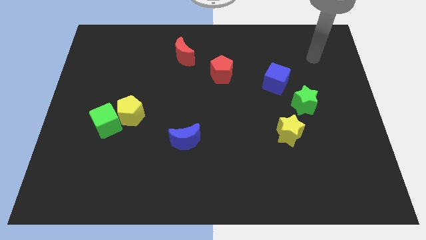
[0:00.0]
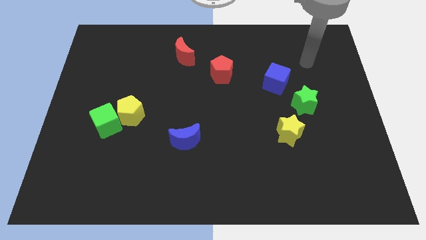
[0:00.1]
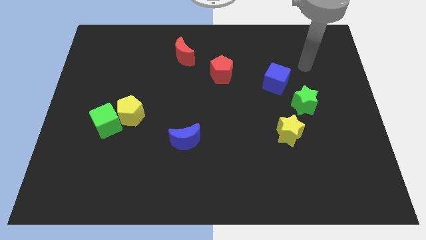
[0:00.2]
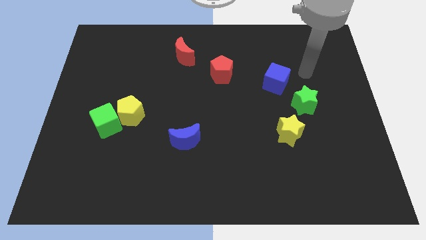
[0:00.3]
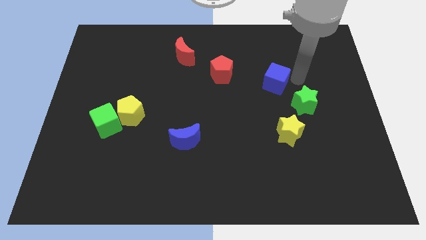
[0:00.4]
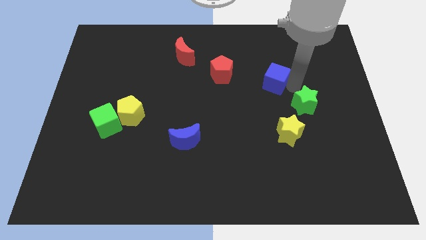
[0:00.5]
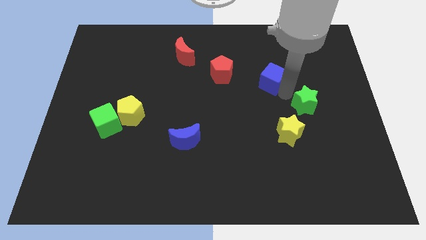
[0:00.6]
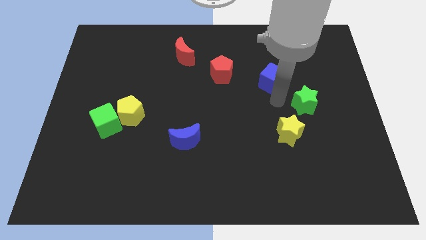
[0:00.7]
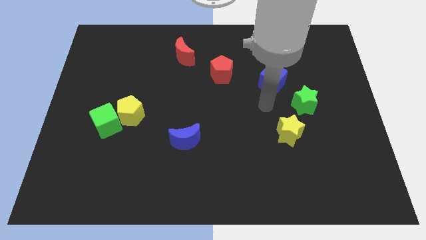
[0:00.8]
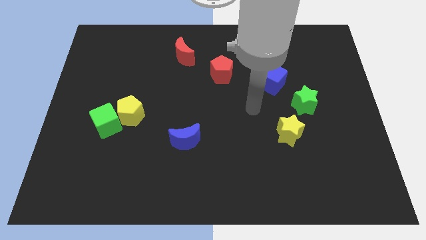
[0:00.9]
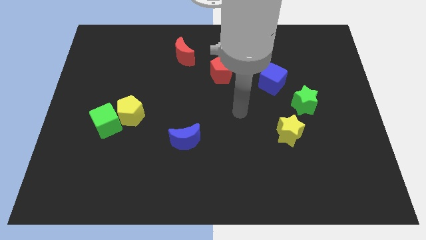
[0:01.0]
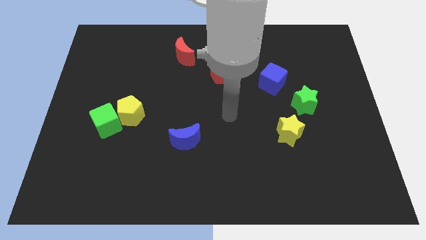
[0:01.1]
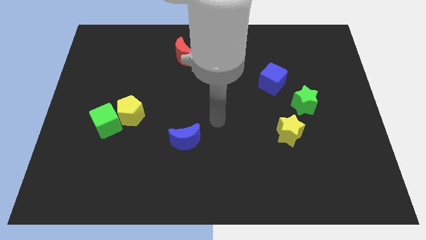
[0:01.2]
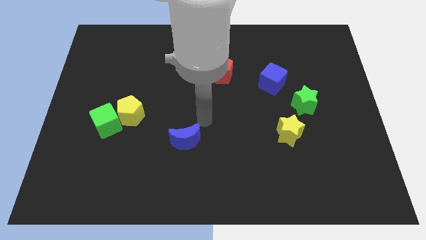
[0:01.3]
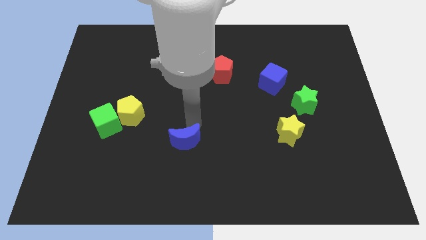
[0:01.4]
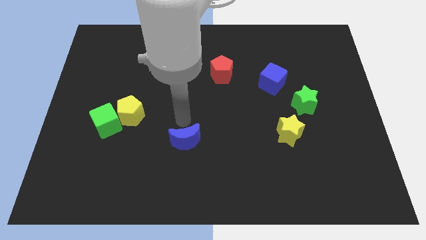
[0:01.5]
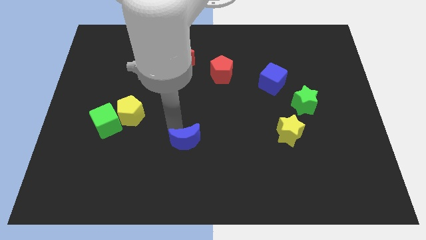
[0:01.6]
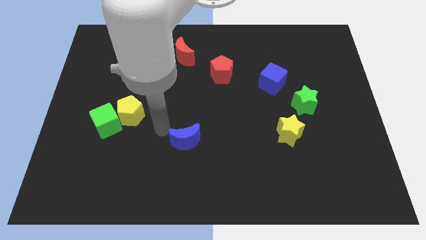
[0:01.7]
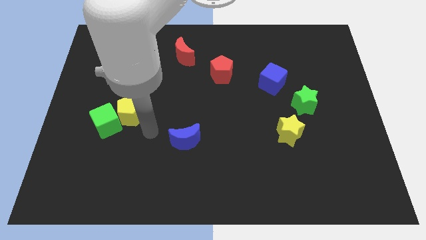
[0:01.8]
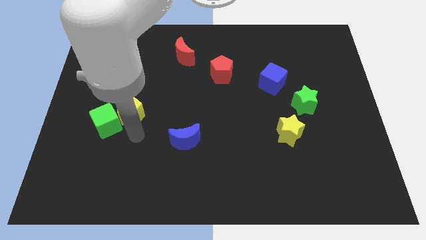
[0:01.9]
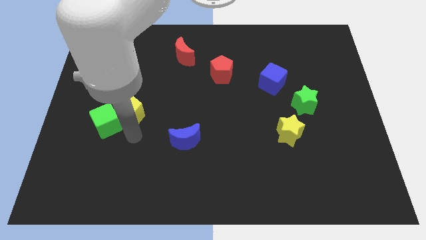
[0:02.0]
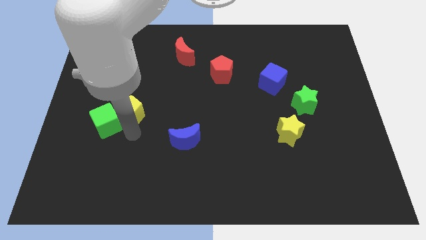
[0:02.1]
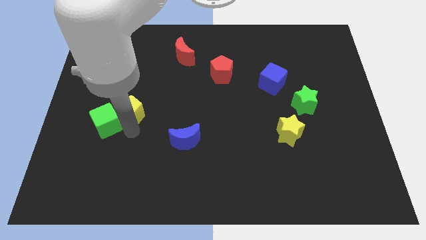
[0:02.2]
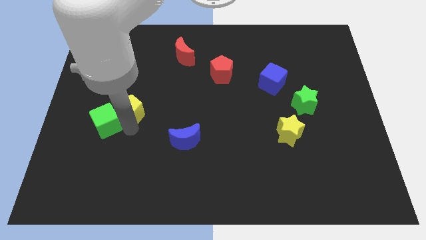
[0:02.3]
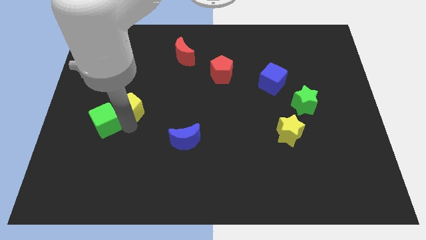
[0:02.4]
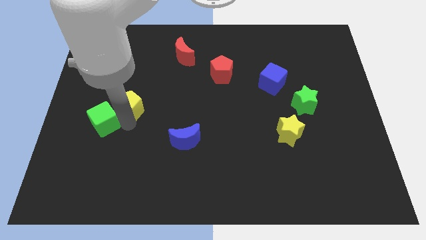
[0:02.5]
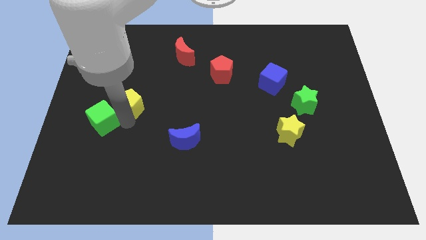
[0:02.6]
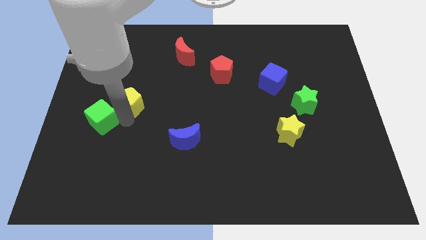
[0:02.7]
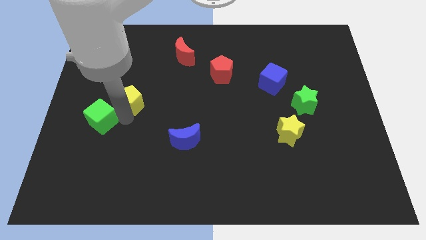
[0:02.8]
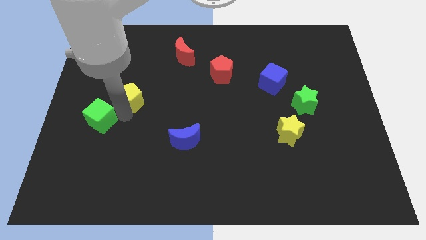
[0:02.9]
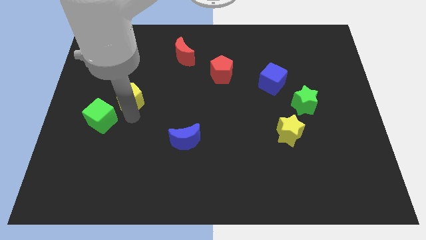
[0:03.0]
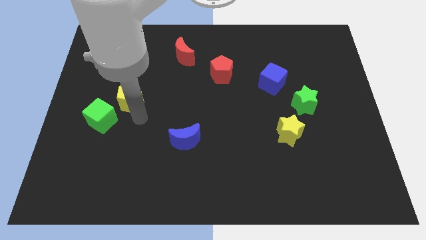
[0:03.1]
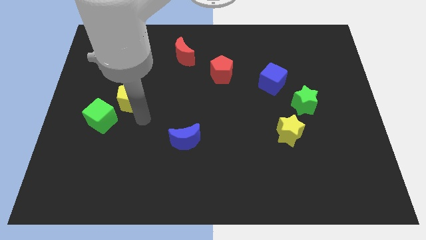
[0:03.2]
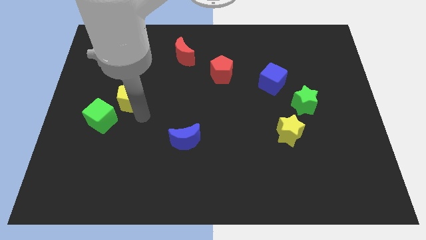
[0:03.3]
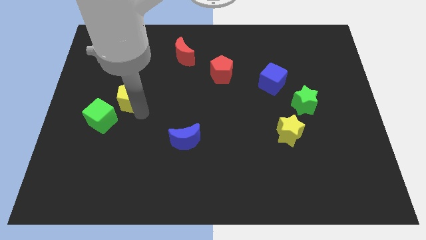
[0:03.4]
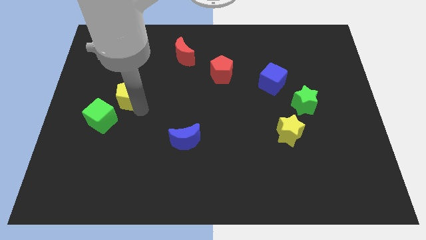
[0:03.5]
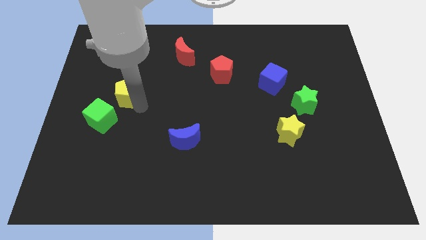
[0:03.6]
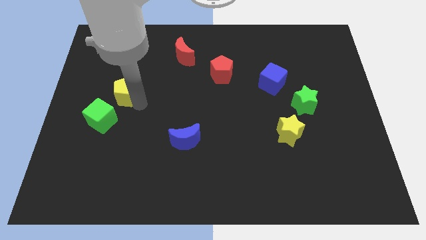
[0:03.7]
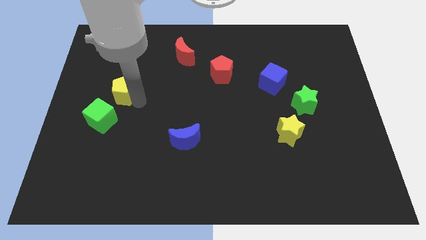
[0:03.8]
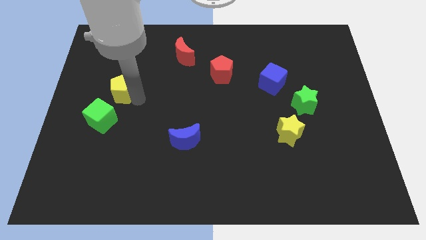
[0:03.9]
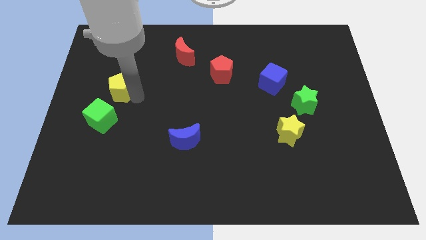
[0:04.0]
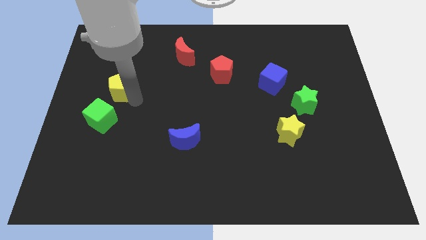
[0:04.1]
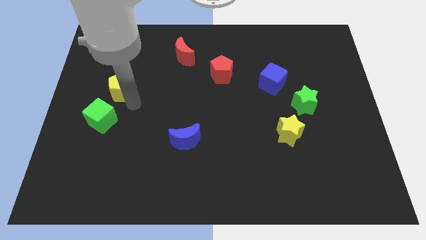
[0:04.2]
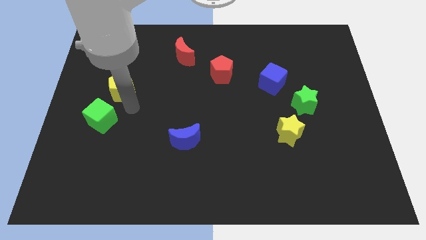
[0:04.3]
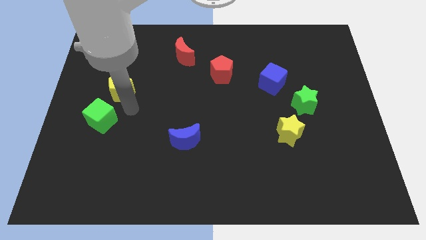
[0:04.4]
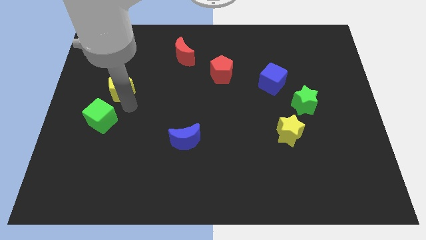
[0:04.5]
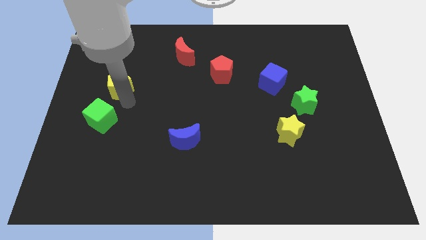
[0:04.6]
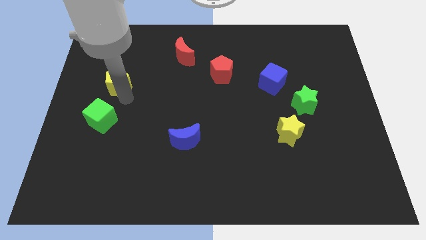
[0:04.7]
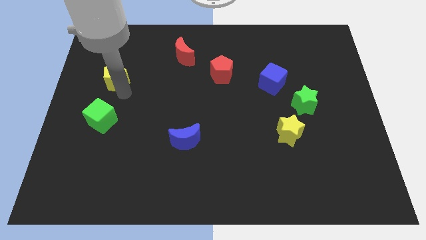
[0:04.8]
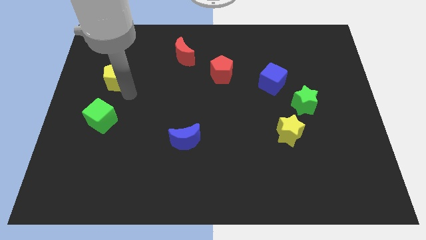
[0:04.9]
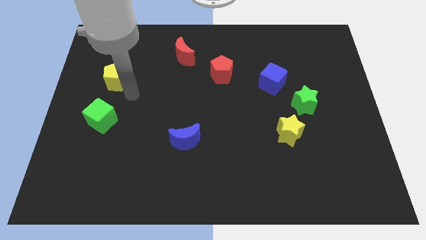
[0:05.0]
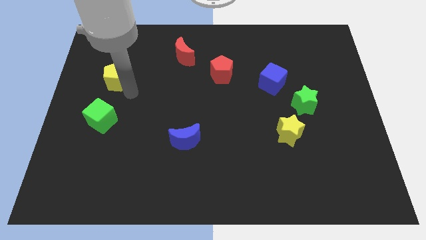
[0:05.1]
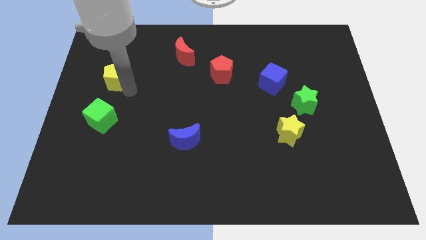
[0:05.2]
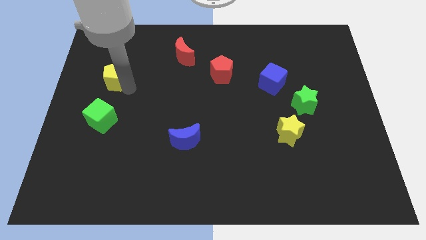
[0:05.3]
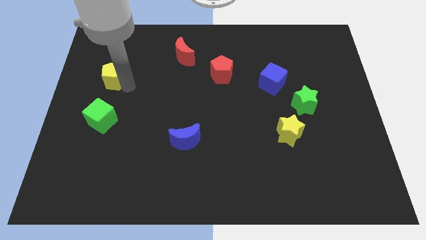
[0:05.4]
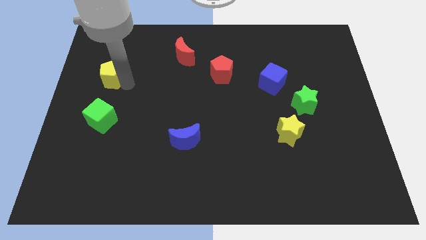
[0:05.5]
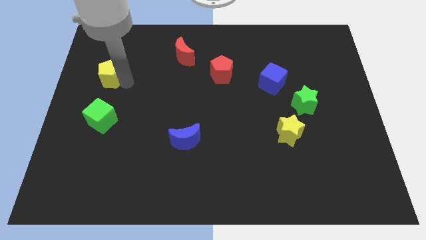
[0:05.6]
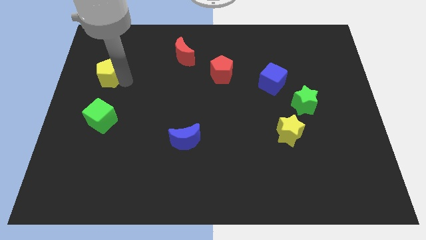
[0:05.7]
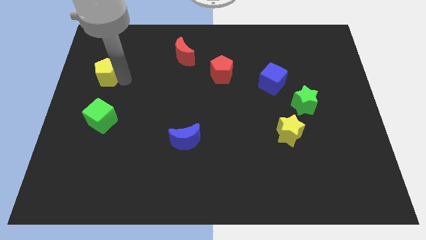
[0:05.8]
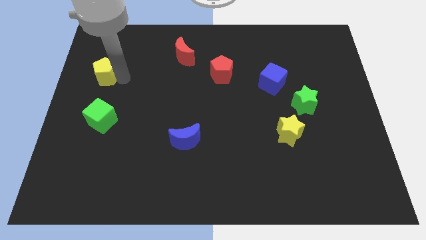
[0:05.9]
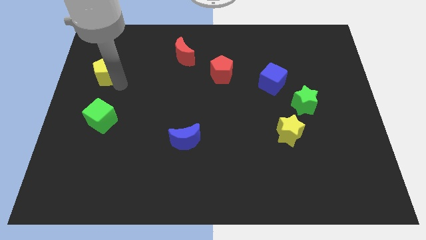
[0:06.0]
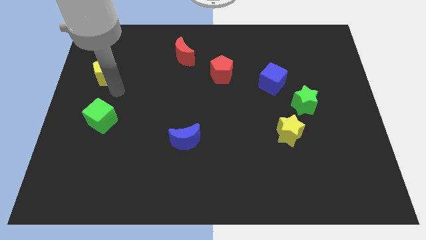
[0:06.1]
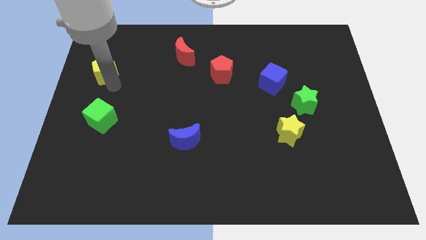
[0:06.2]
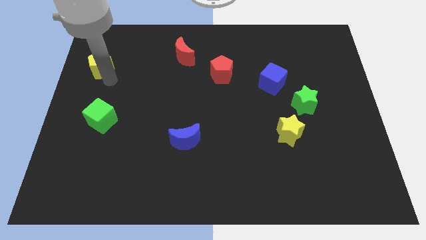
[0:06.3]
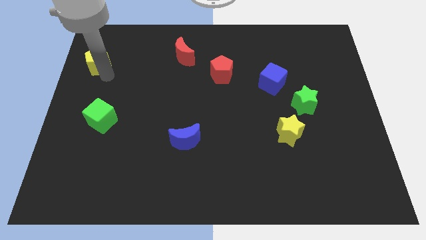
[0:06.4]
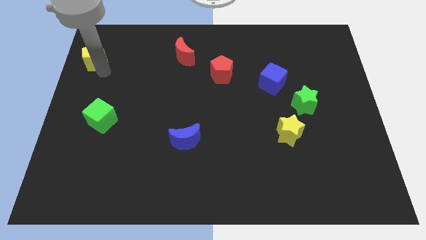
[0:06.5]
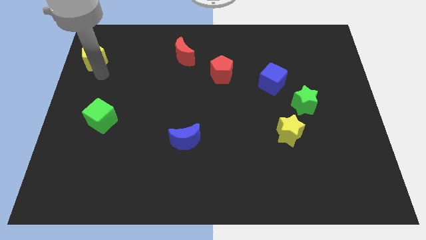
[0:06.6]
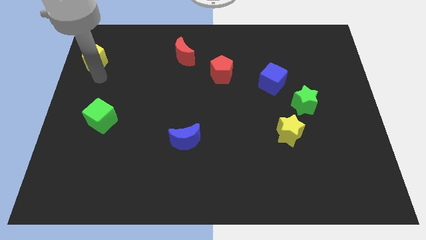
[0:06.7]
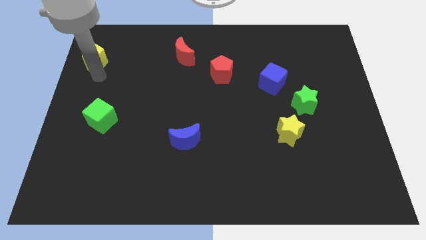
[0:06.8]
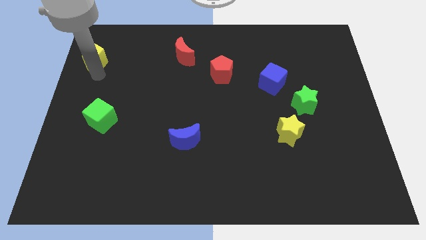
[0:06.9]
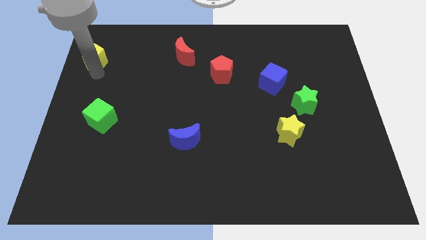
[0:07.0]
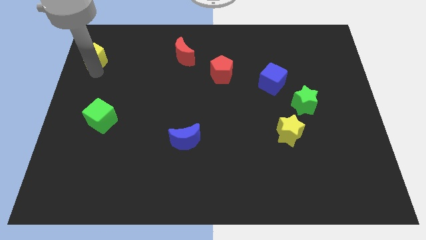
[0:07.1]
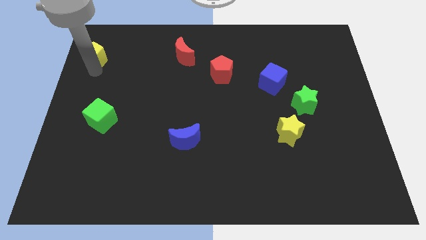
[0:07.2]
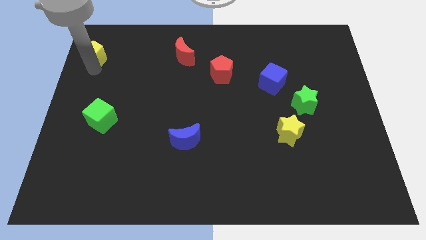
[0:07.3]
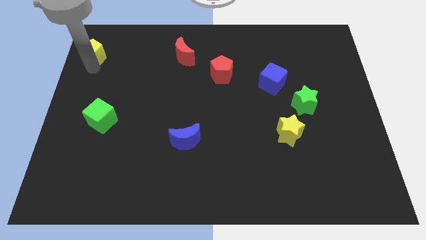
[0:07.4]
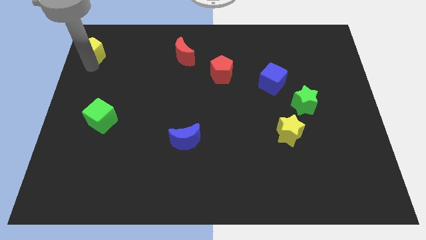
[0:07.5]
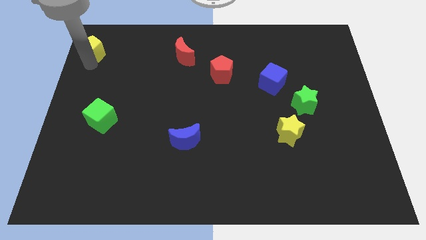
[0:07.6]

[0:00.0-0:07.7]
slide the yellow pentagon to the top left
